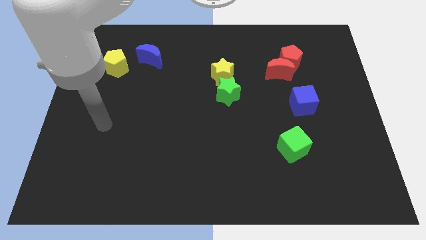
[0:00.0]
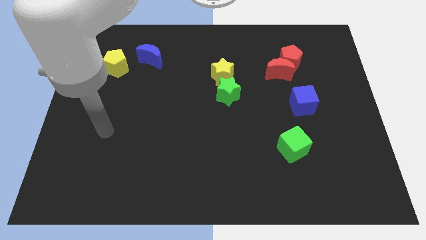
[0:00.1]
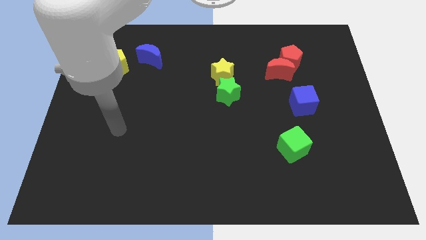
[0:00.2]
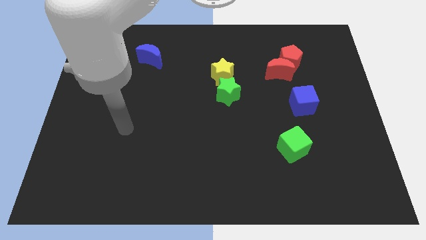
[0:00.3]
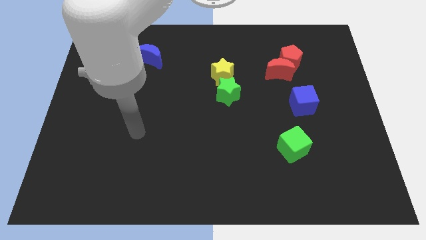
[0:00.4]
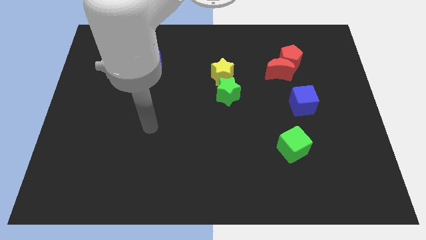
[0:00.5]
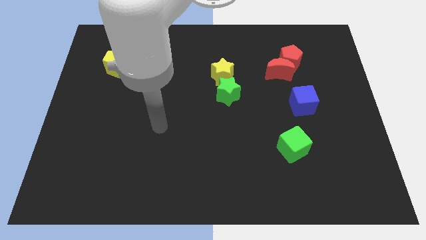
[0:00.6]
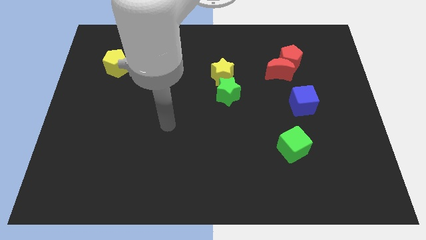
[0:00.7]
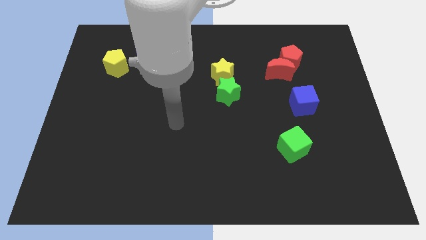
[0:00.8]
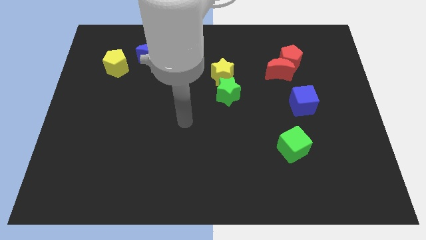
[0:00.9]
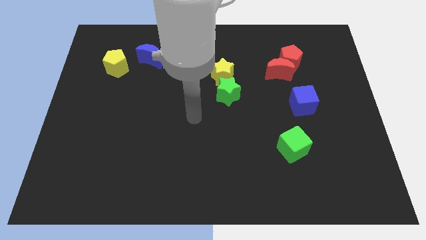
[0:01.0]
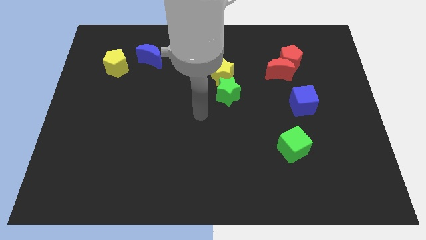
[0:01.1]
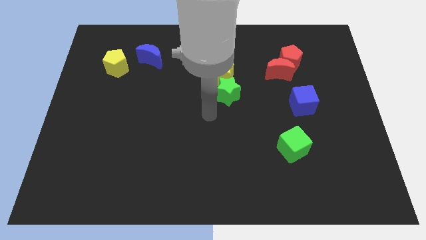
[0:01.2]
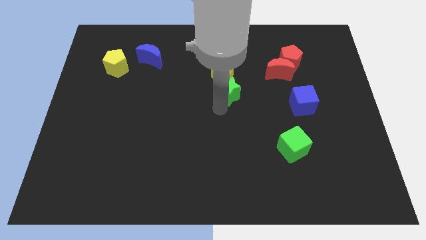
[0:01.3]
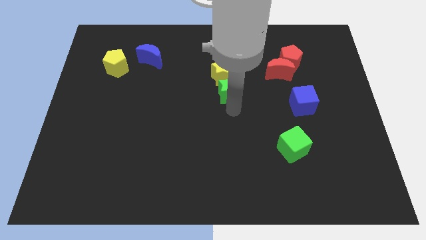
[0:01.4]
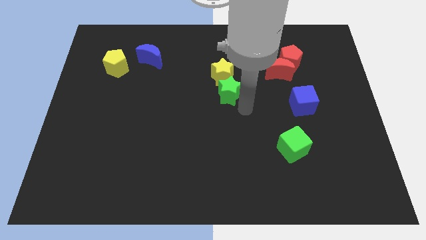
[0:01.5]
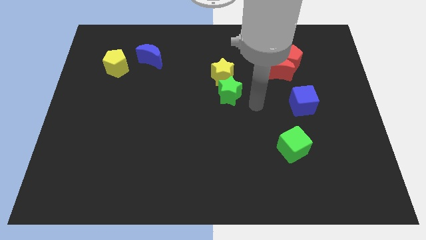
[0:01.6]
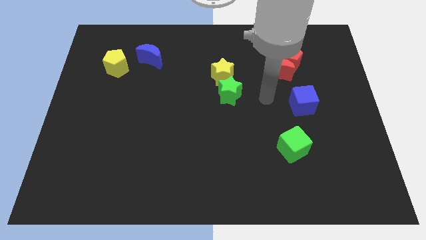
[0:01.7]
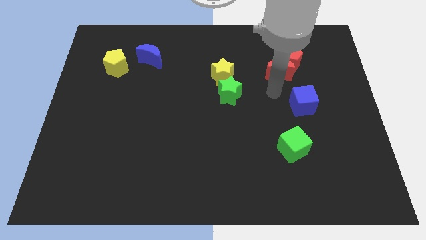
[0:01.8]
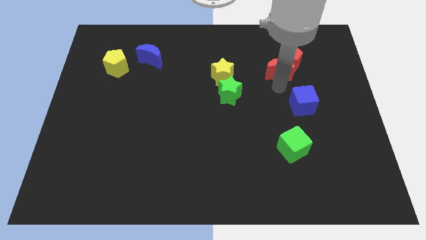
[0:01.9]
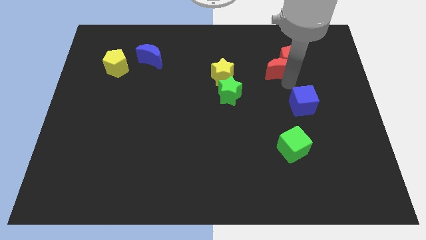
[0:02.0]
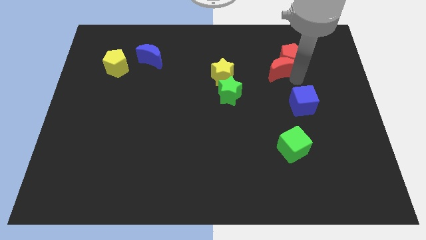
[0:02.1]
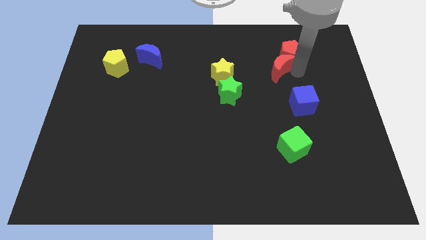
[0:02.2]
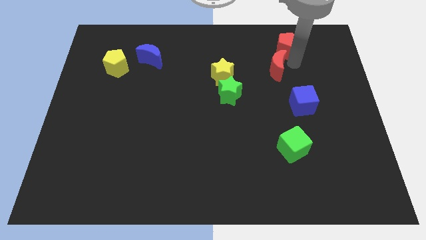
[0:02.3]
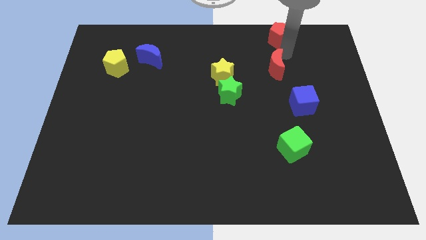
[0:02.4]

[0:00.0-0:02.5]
move the red moon away from the red pentagon

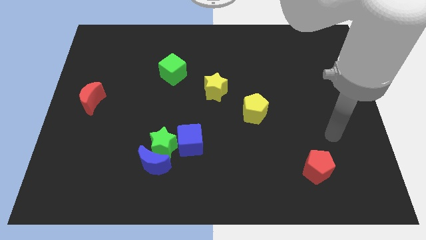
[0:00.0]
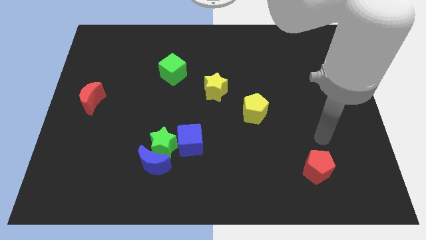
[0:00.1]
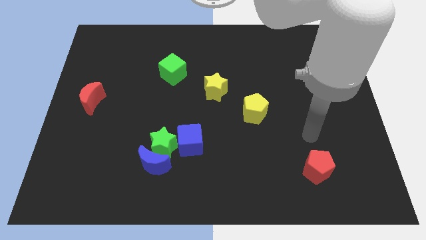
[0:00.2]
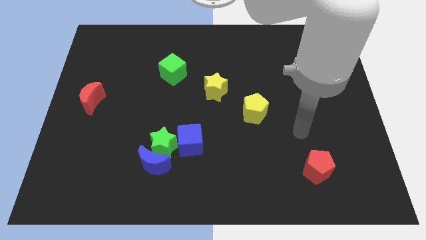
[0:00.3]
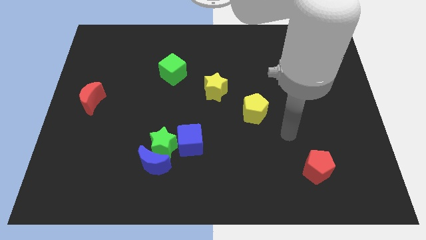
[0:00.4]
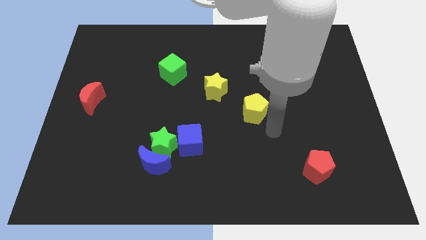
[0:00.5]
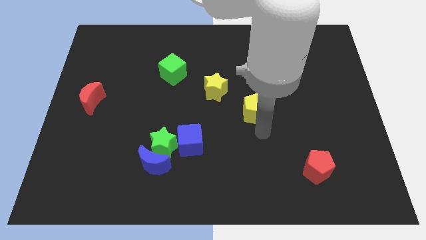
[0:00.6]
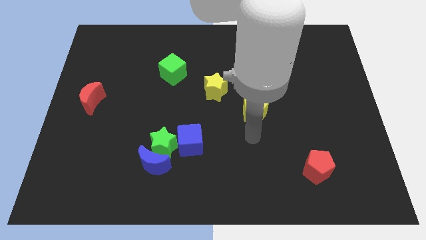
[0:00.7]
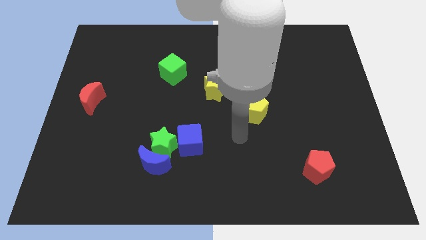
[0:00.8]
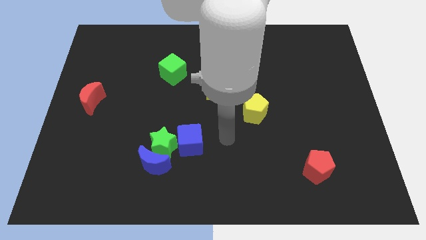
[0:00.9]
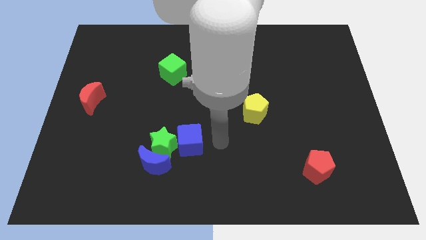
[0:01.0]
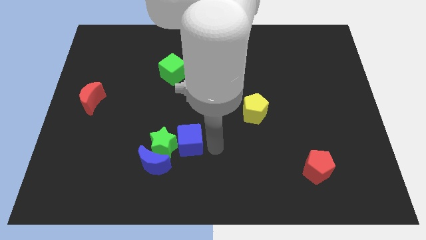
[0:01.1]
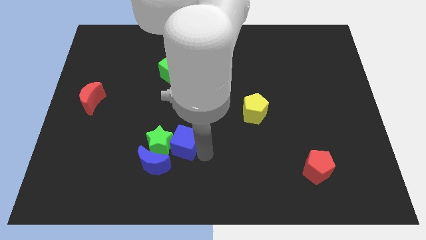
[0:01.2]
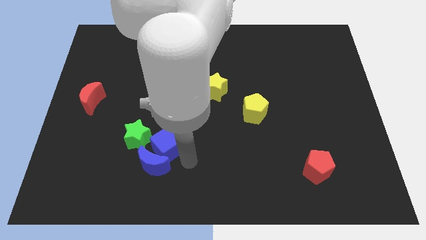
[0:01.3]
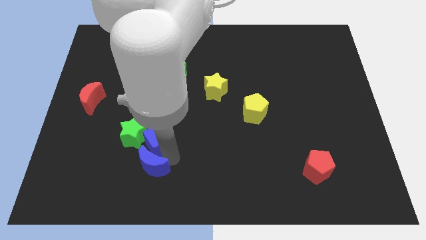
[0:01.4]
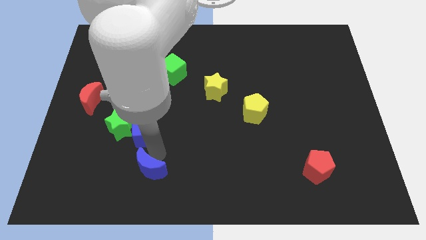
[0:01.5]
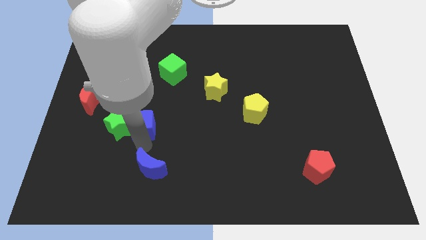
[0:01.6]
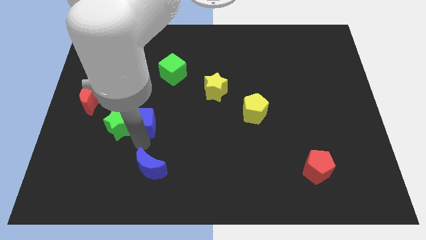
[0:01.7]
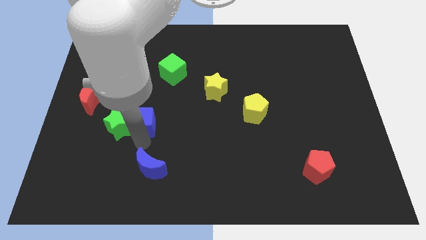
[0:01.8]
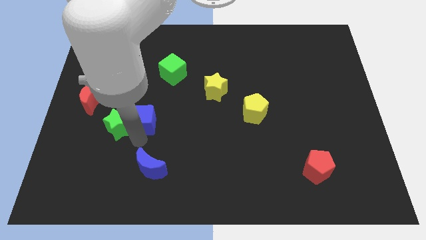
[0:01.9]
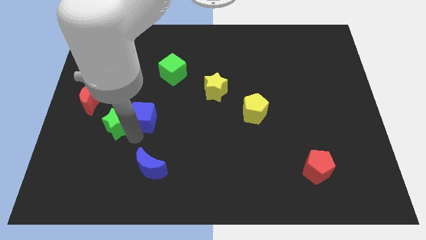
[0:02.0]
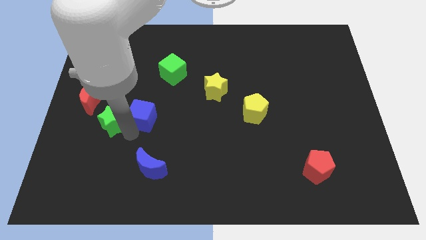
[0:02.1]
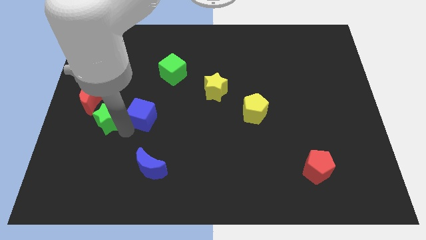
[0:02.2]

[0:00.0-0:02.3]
separate the green star from the blue moon and blue cube

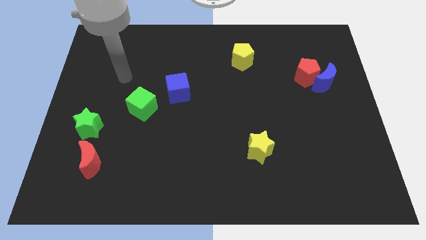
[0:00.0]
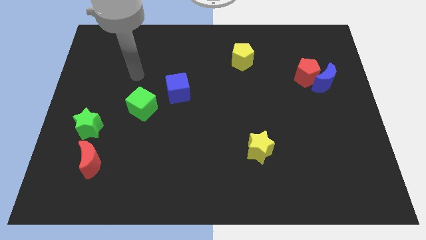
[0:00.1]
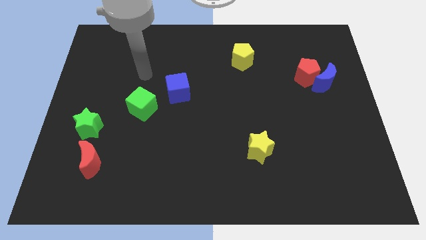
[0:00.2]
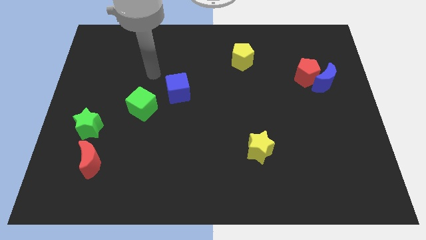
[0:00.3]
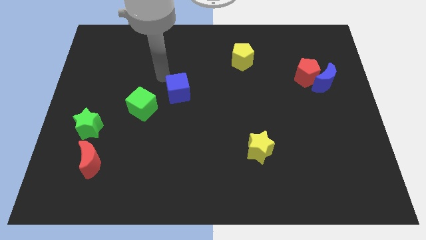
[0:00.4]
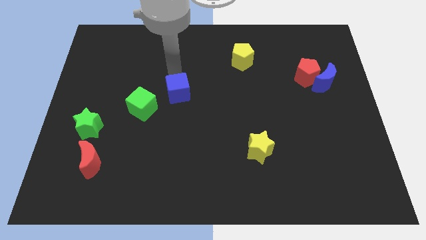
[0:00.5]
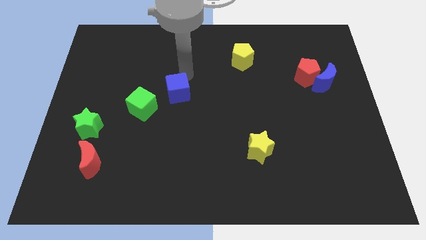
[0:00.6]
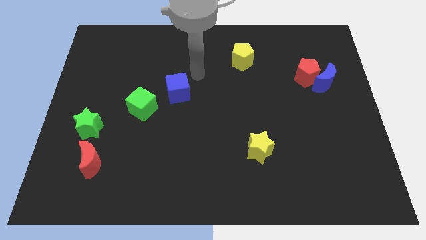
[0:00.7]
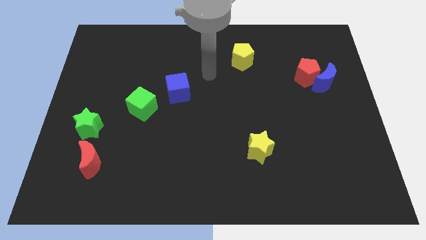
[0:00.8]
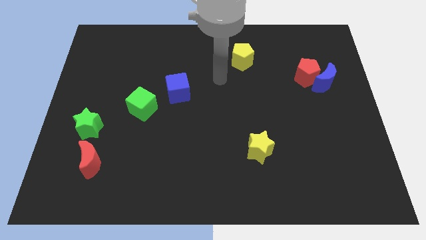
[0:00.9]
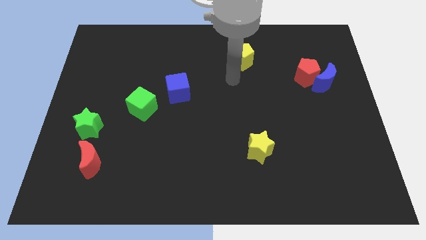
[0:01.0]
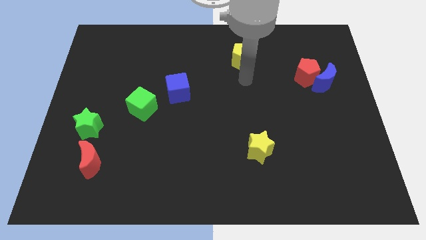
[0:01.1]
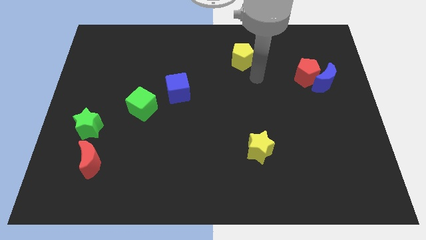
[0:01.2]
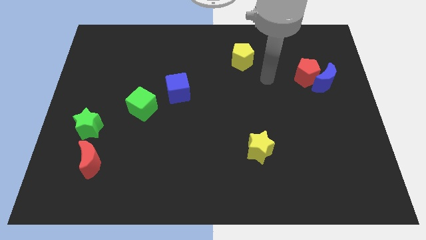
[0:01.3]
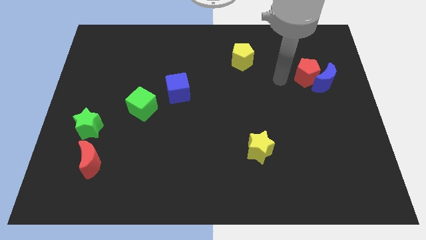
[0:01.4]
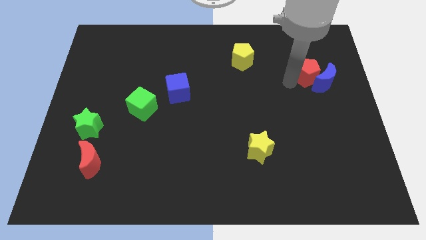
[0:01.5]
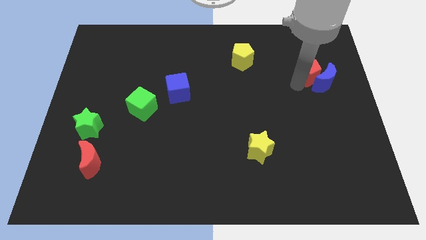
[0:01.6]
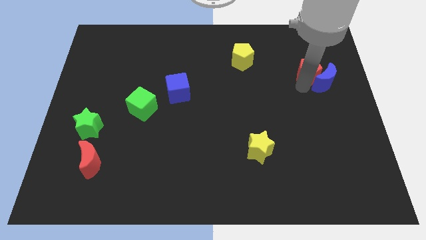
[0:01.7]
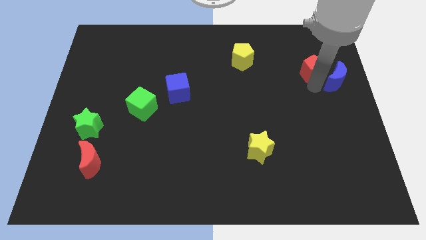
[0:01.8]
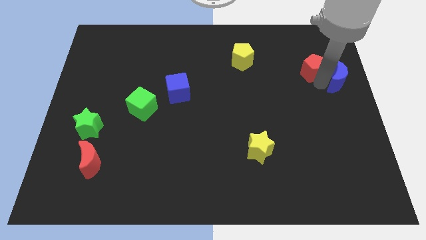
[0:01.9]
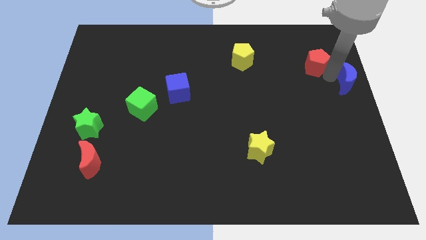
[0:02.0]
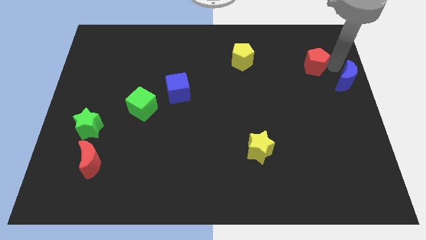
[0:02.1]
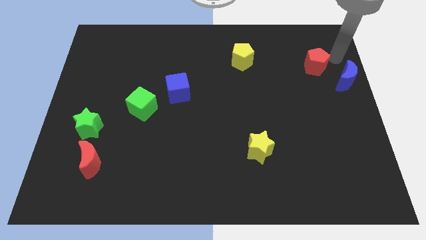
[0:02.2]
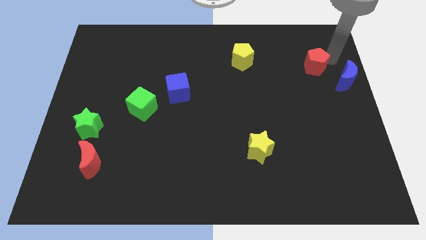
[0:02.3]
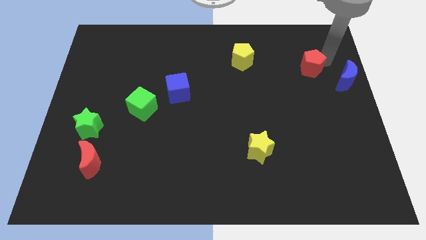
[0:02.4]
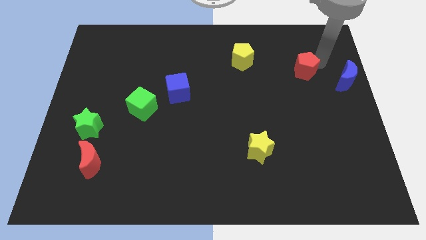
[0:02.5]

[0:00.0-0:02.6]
move the red pentagon away from the blue moon

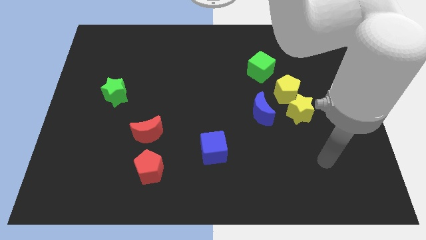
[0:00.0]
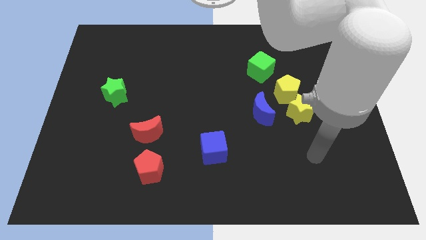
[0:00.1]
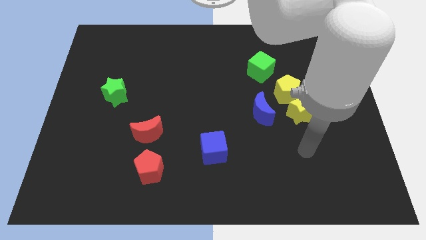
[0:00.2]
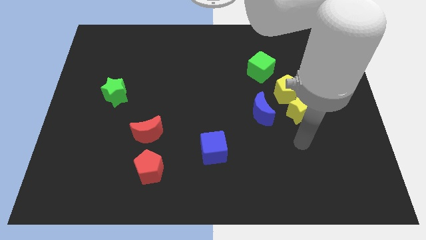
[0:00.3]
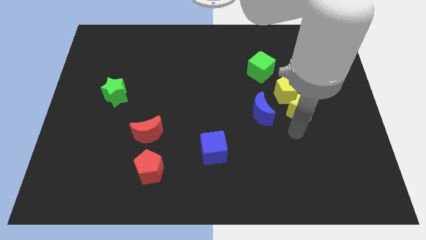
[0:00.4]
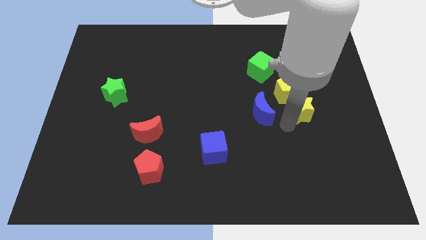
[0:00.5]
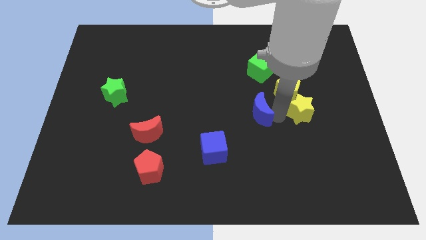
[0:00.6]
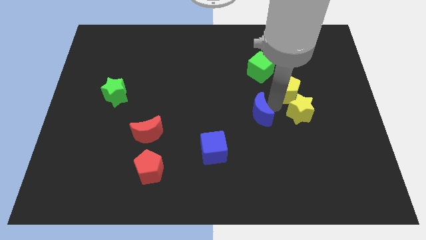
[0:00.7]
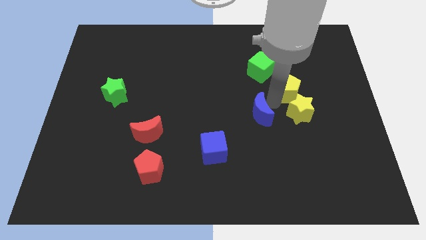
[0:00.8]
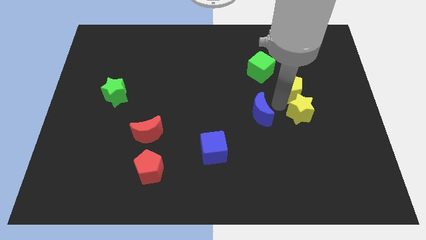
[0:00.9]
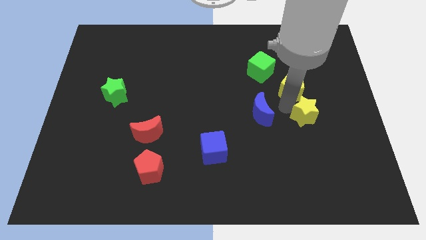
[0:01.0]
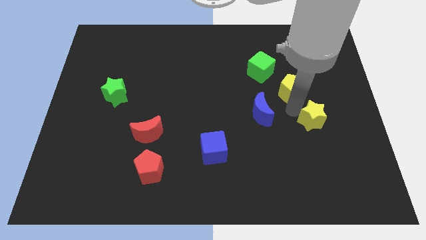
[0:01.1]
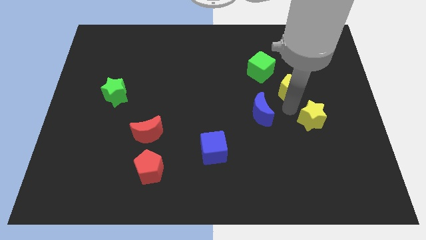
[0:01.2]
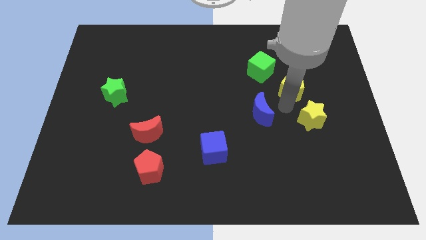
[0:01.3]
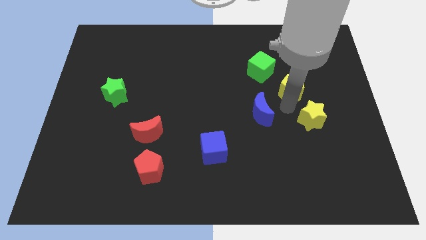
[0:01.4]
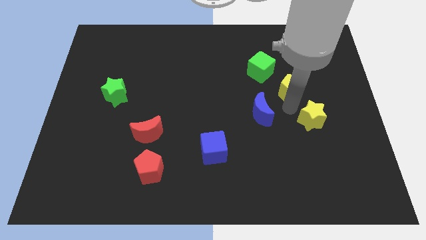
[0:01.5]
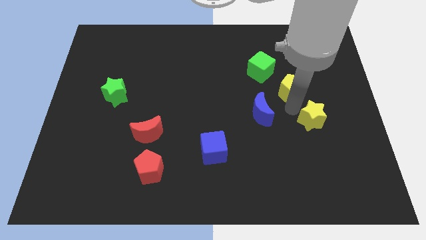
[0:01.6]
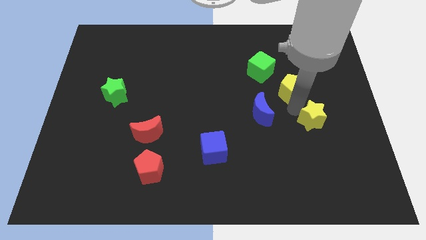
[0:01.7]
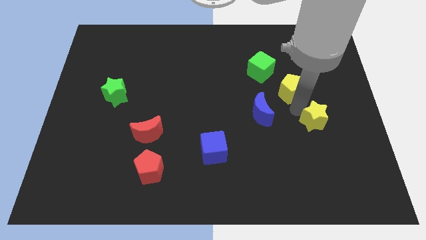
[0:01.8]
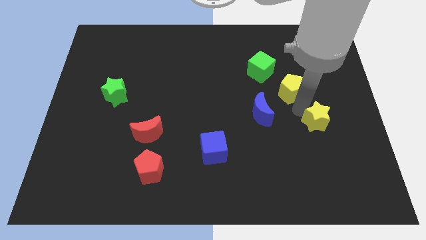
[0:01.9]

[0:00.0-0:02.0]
pull the yellow star apart from the yellow pentagon and blue moon
